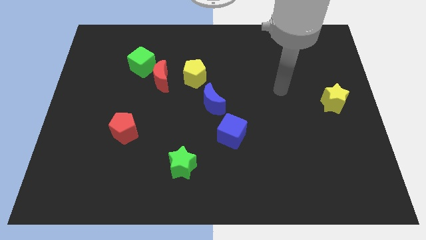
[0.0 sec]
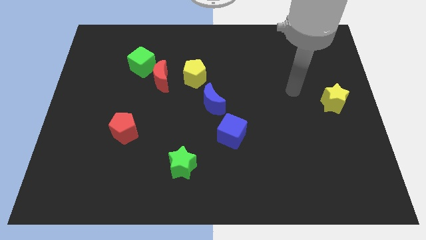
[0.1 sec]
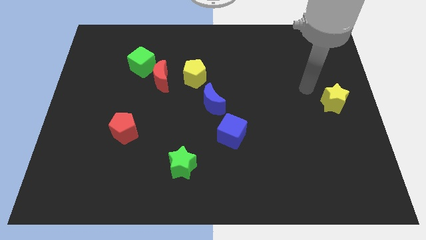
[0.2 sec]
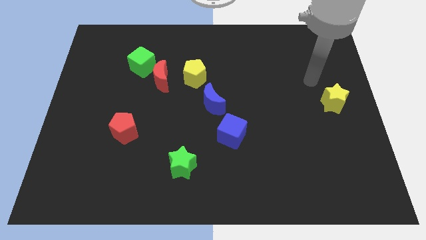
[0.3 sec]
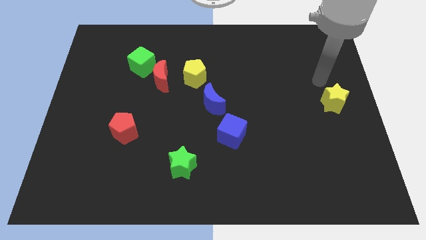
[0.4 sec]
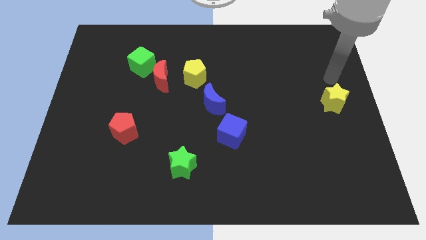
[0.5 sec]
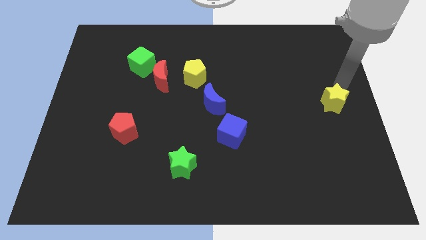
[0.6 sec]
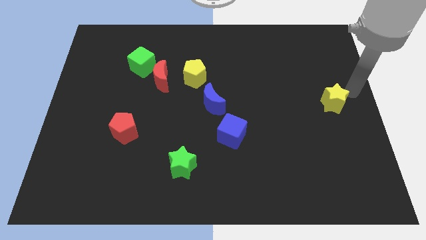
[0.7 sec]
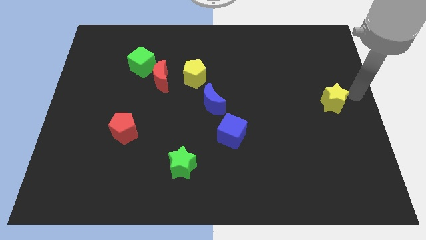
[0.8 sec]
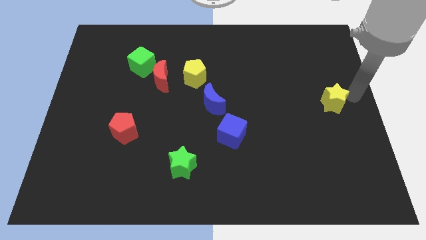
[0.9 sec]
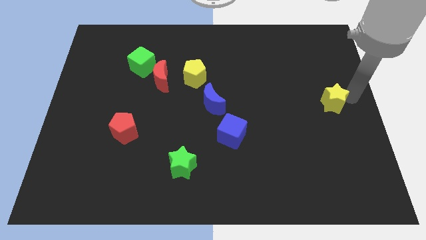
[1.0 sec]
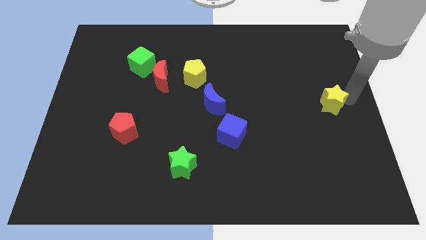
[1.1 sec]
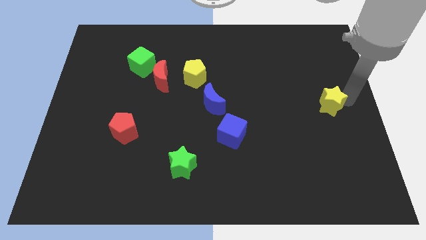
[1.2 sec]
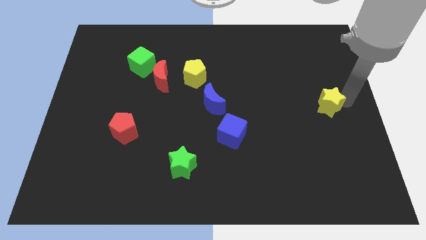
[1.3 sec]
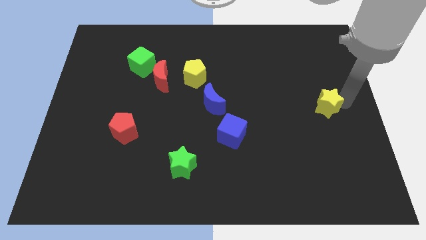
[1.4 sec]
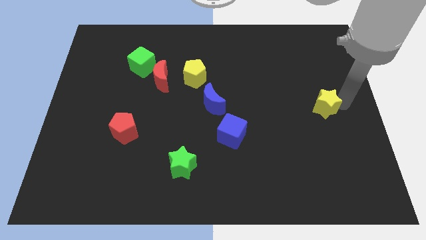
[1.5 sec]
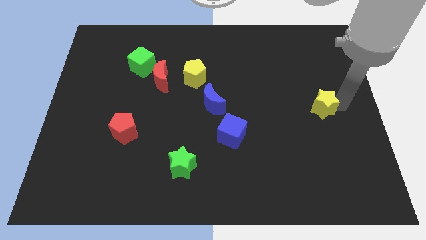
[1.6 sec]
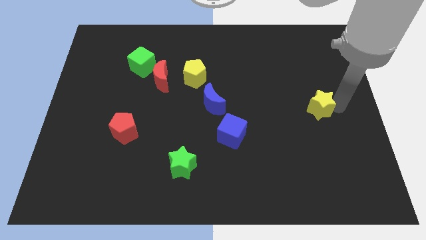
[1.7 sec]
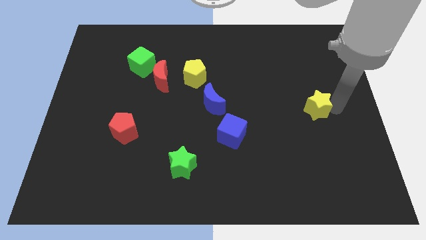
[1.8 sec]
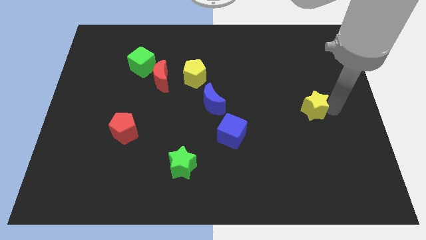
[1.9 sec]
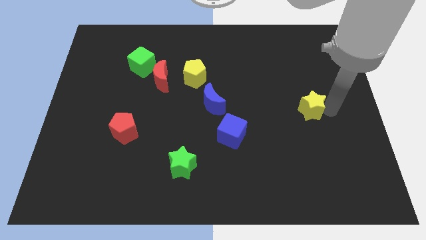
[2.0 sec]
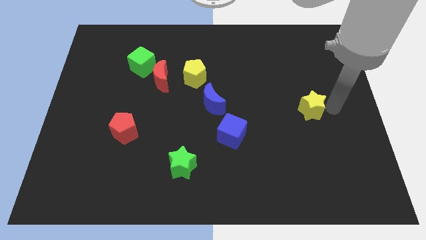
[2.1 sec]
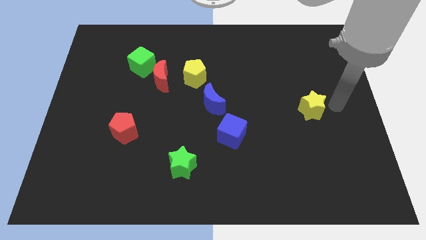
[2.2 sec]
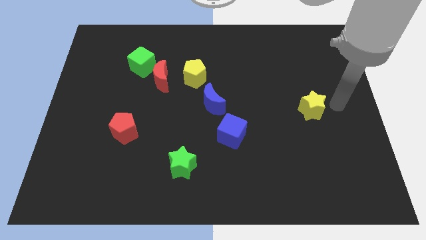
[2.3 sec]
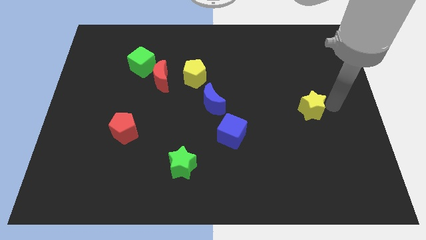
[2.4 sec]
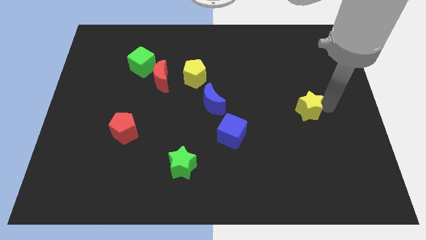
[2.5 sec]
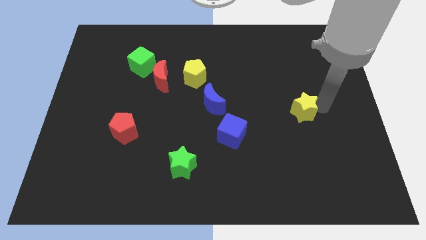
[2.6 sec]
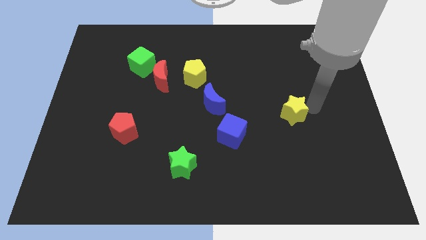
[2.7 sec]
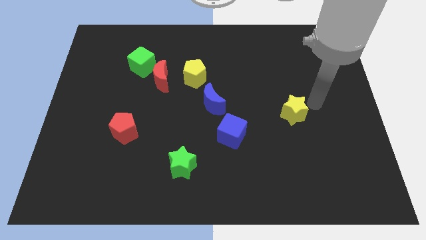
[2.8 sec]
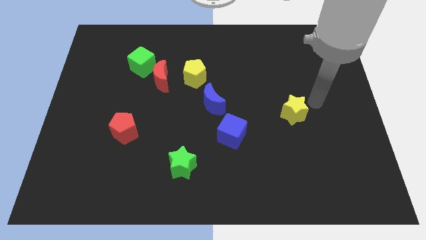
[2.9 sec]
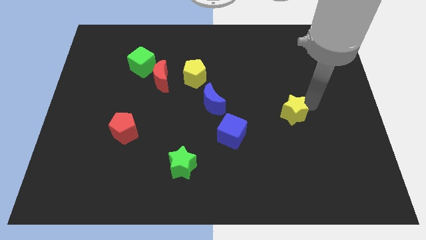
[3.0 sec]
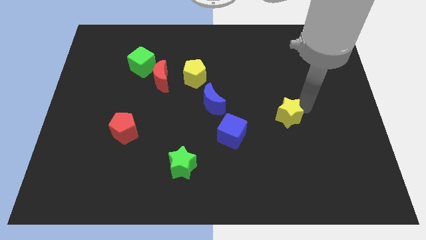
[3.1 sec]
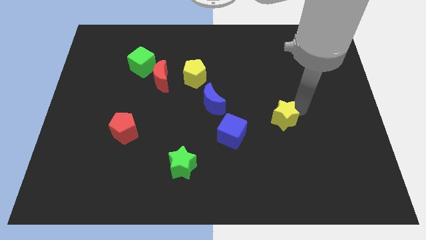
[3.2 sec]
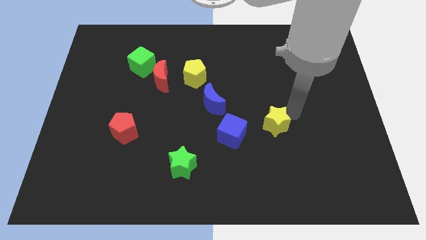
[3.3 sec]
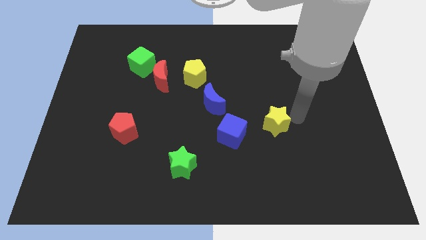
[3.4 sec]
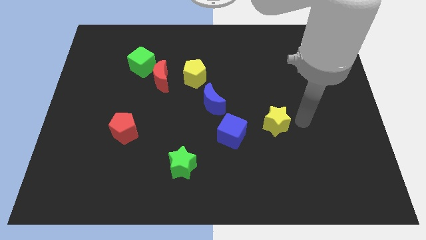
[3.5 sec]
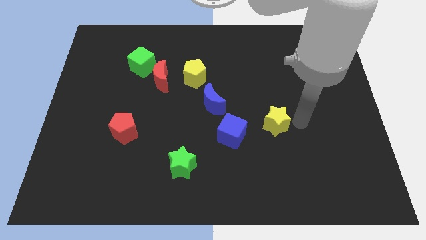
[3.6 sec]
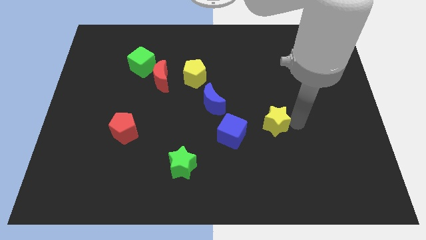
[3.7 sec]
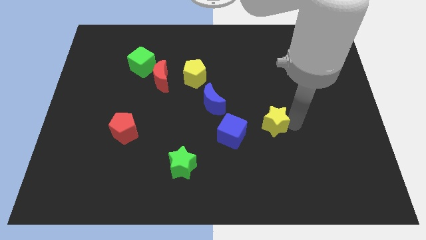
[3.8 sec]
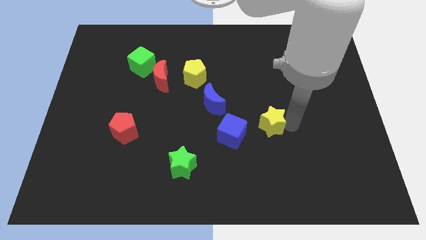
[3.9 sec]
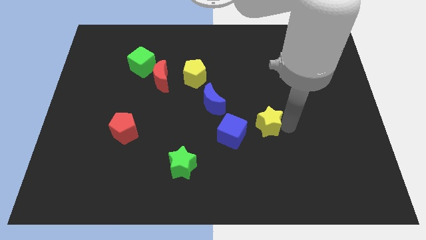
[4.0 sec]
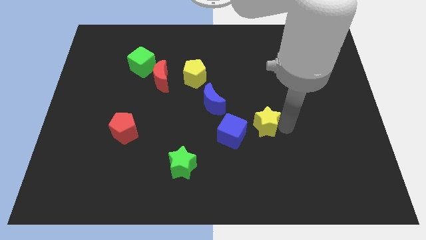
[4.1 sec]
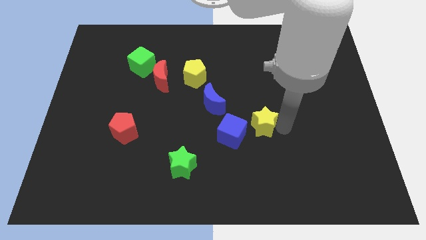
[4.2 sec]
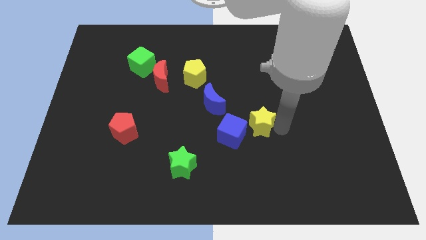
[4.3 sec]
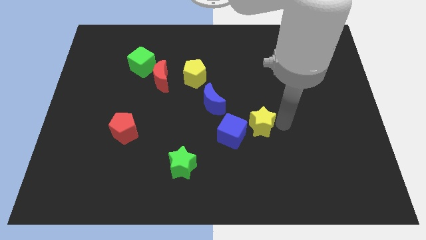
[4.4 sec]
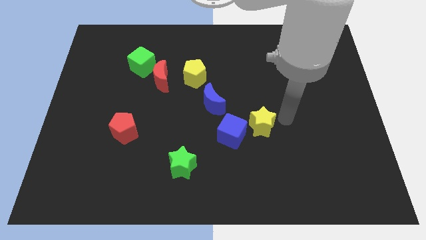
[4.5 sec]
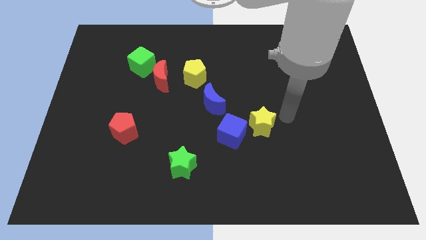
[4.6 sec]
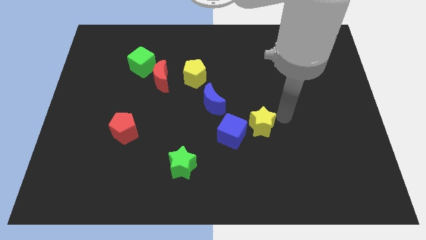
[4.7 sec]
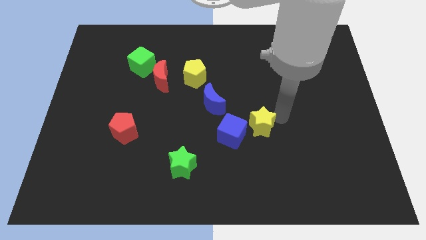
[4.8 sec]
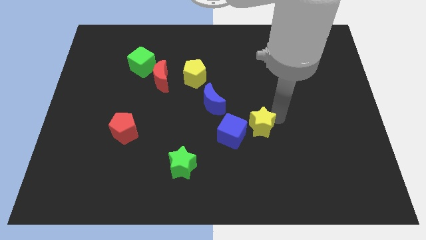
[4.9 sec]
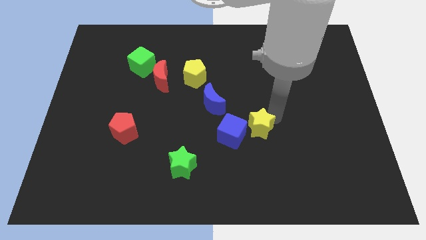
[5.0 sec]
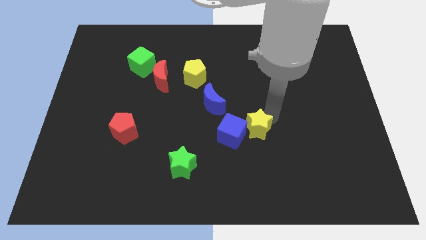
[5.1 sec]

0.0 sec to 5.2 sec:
move the yellow star close to the blue cube

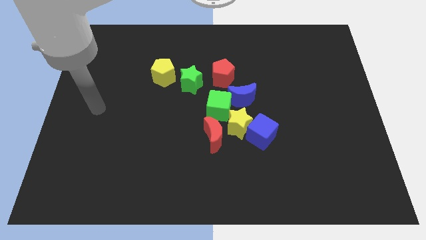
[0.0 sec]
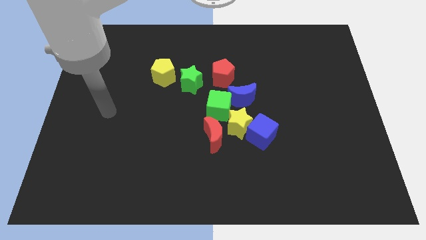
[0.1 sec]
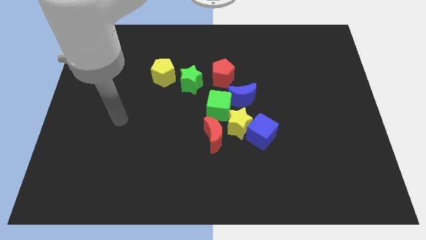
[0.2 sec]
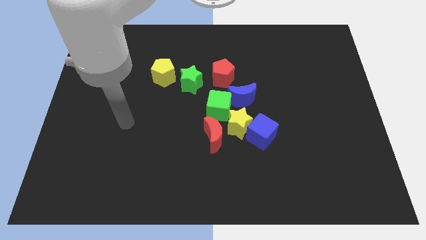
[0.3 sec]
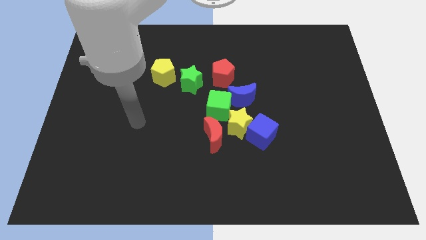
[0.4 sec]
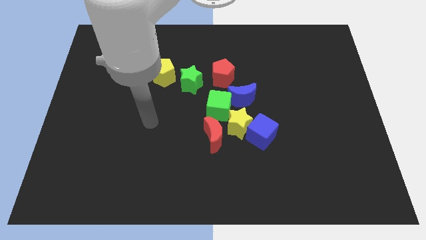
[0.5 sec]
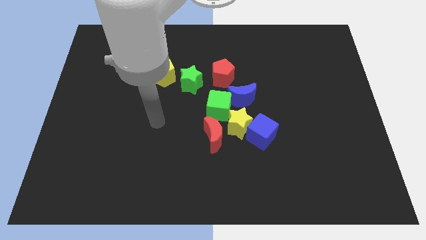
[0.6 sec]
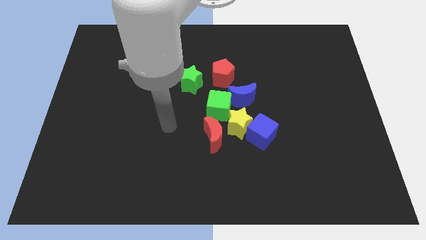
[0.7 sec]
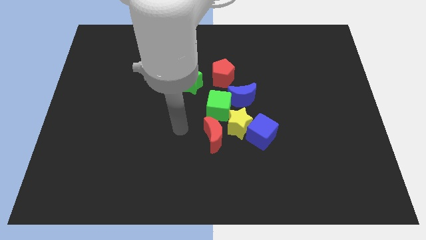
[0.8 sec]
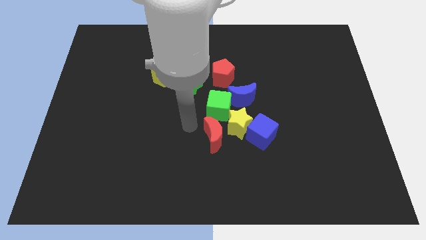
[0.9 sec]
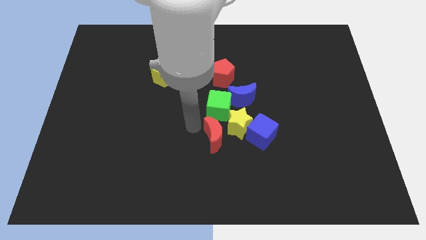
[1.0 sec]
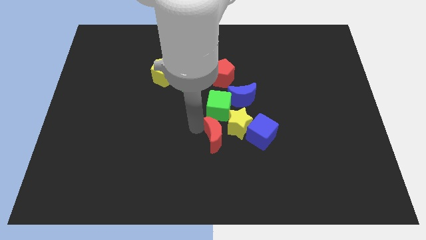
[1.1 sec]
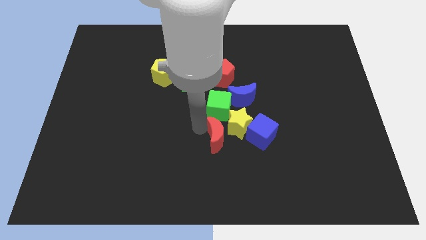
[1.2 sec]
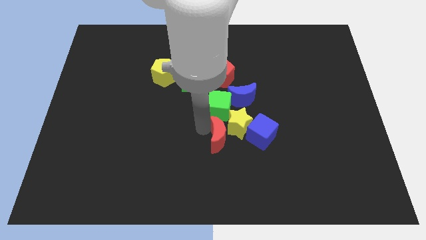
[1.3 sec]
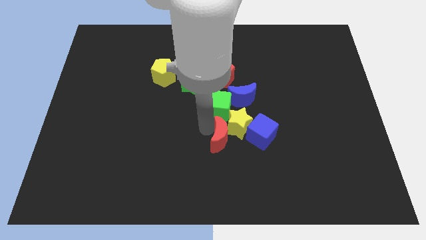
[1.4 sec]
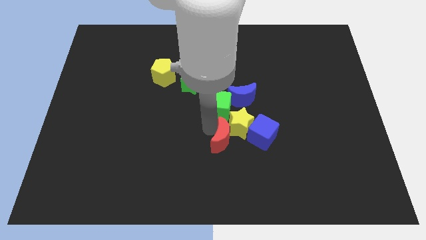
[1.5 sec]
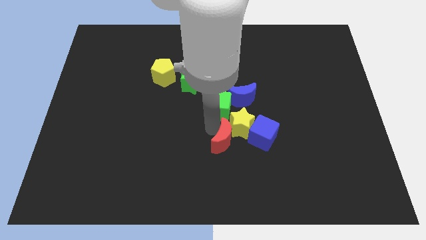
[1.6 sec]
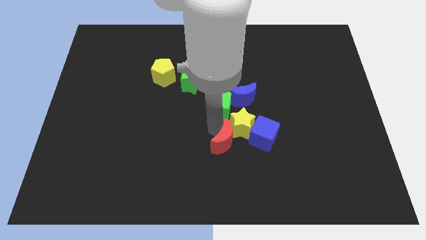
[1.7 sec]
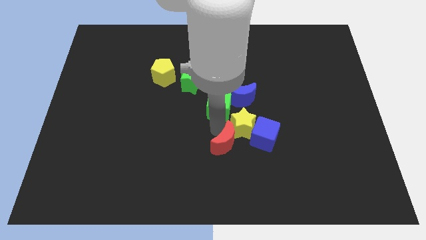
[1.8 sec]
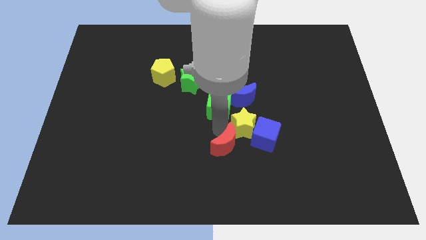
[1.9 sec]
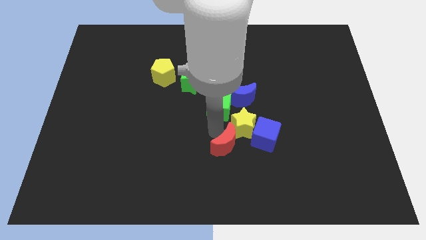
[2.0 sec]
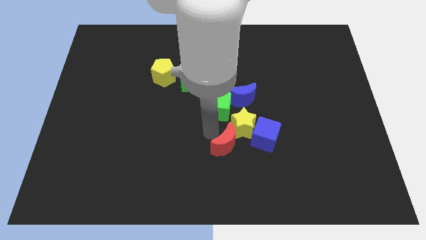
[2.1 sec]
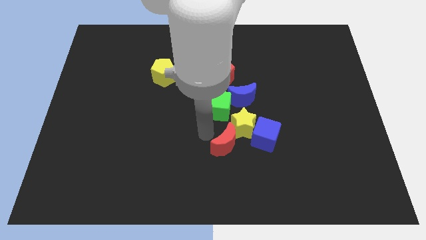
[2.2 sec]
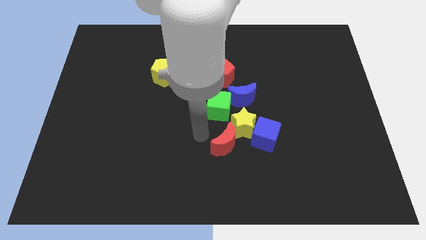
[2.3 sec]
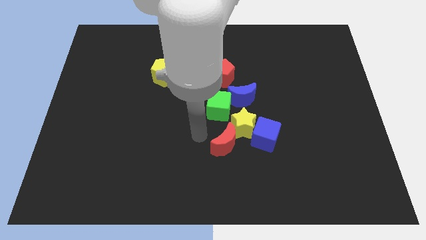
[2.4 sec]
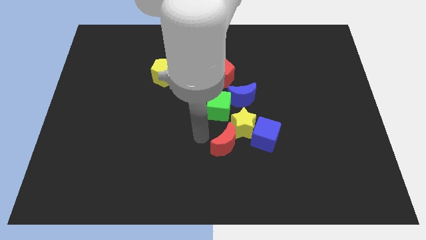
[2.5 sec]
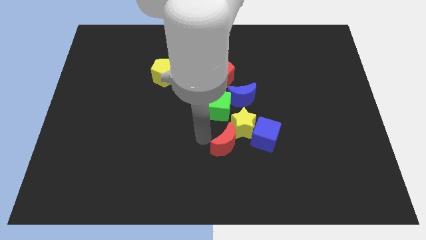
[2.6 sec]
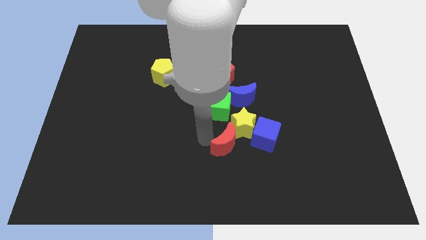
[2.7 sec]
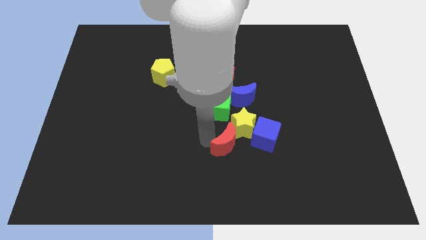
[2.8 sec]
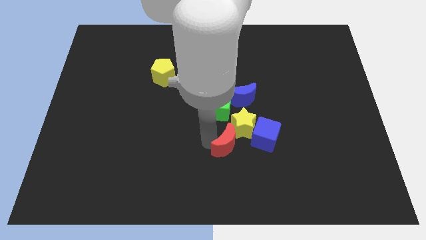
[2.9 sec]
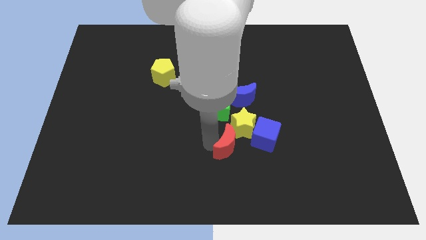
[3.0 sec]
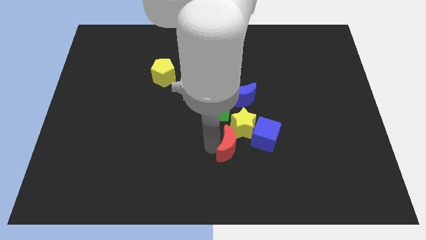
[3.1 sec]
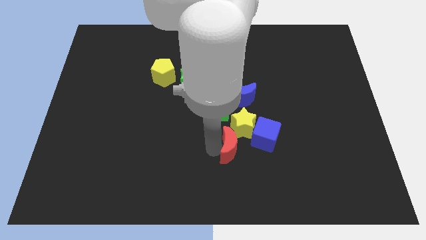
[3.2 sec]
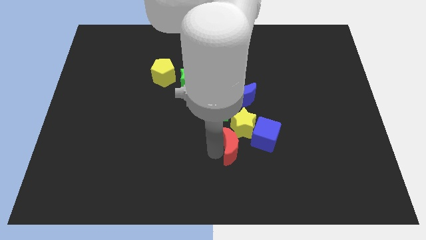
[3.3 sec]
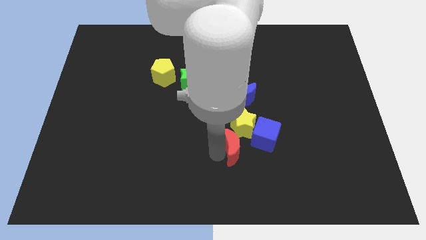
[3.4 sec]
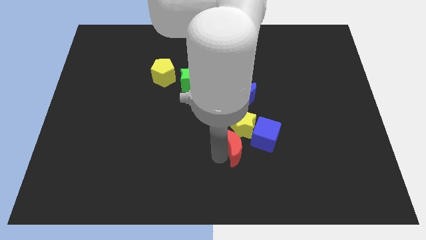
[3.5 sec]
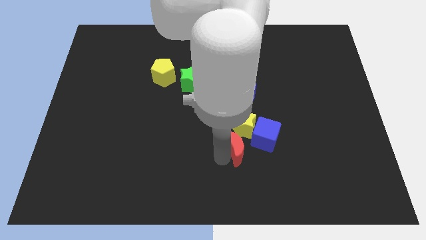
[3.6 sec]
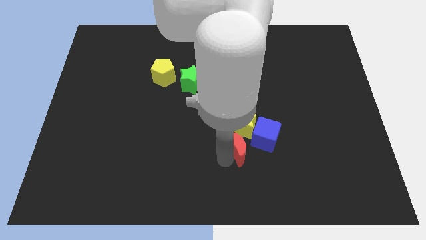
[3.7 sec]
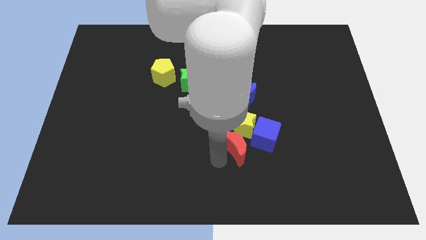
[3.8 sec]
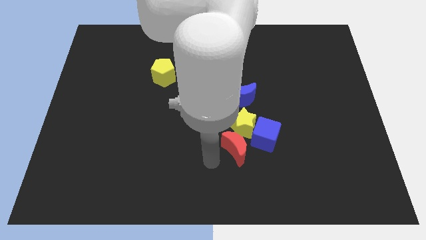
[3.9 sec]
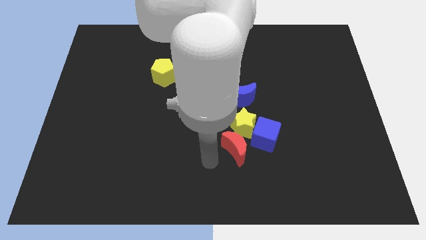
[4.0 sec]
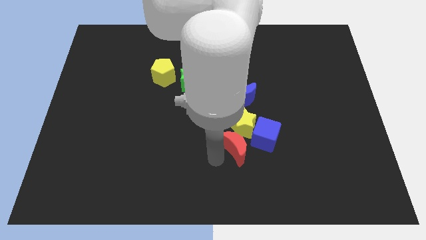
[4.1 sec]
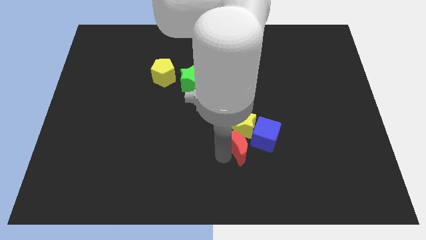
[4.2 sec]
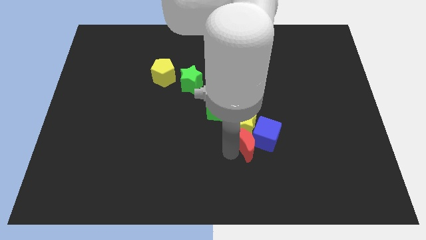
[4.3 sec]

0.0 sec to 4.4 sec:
push the red moon close to the blue cube
